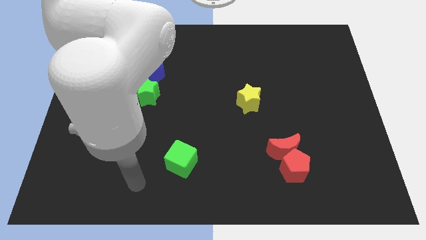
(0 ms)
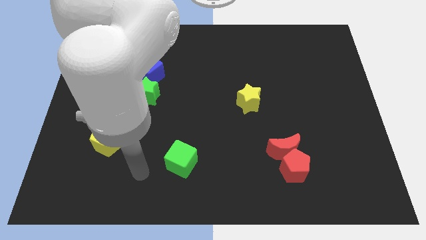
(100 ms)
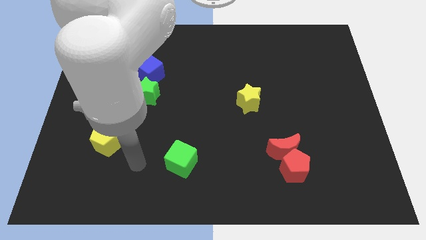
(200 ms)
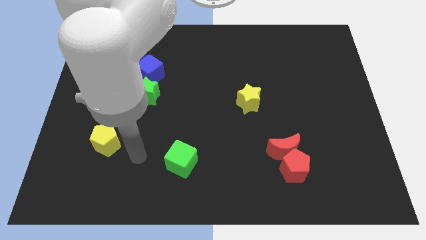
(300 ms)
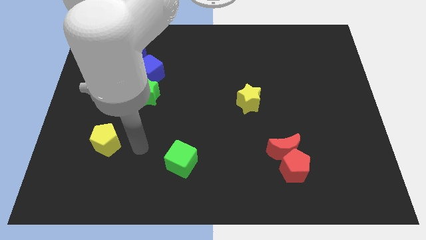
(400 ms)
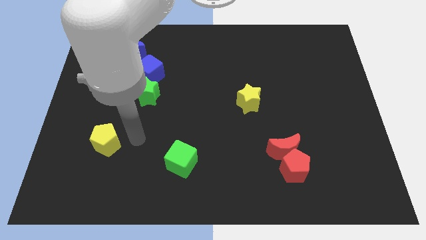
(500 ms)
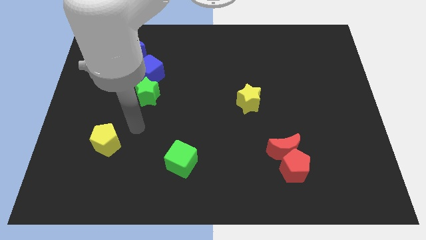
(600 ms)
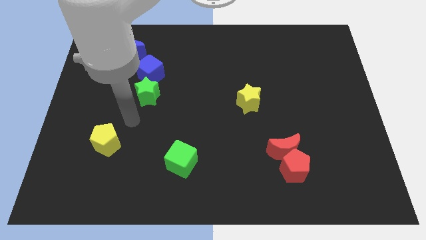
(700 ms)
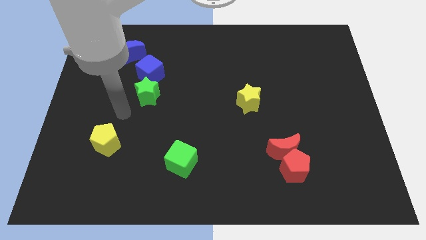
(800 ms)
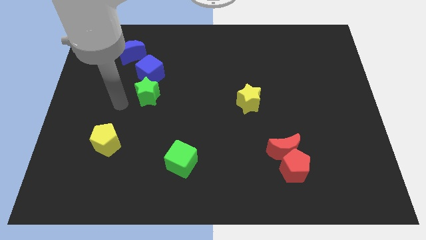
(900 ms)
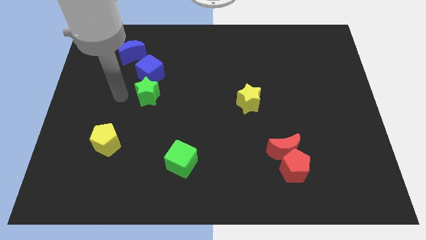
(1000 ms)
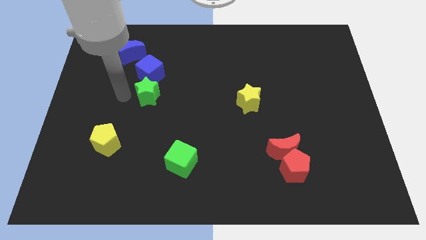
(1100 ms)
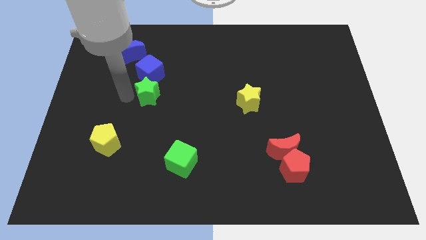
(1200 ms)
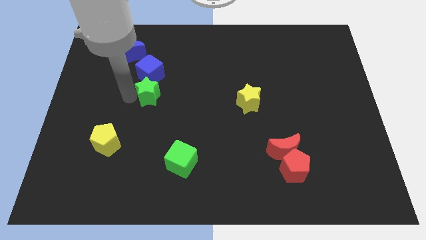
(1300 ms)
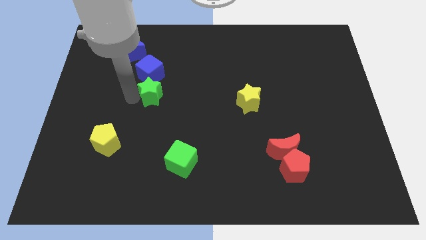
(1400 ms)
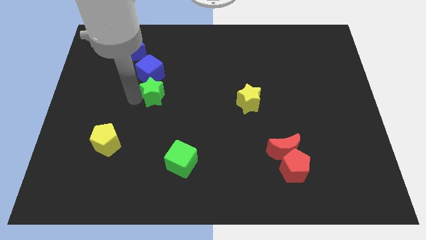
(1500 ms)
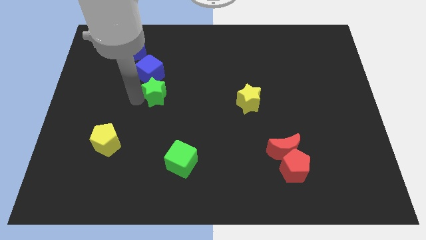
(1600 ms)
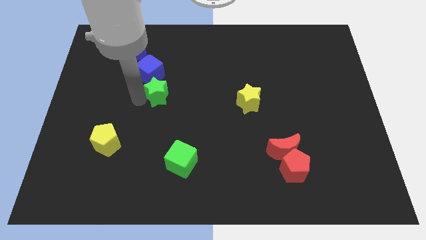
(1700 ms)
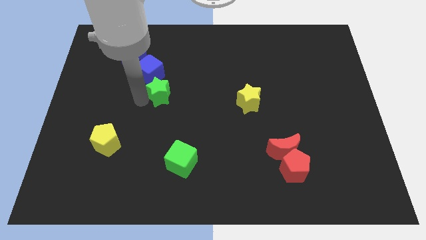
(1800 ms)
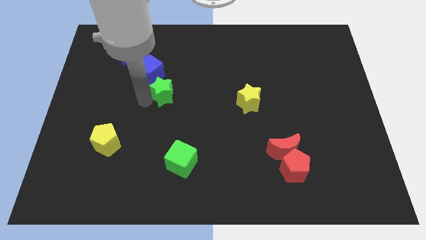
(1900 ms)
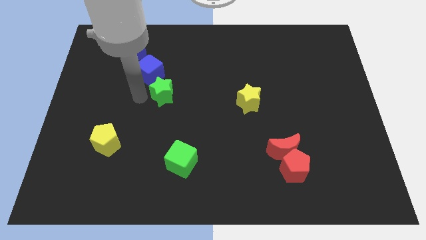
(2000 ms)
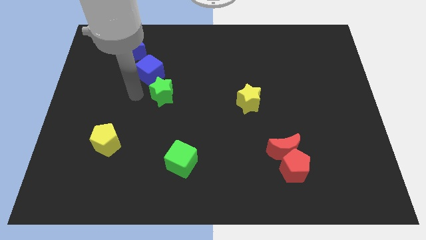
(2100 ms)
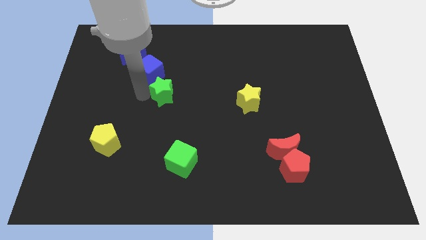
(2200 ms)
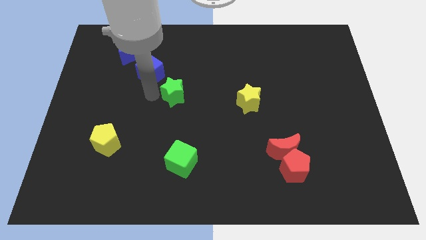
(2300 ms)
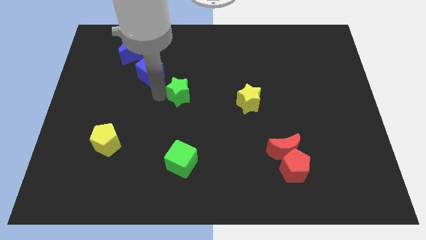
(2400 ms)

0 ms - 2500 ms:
push the green star to the right a little

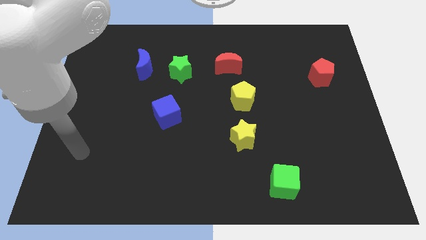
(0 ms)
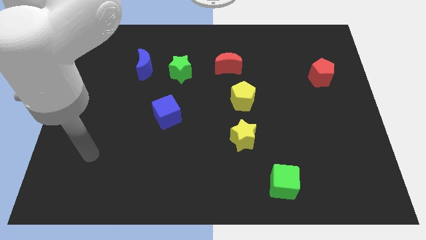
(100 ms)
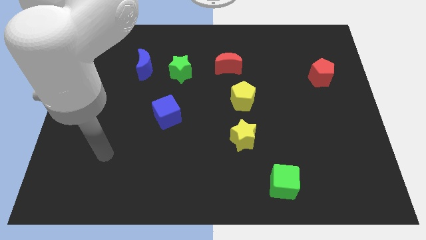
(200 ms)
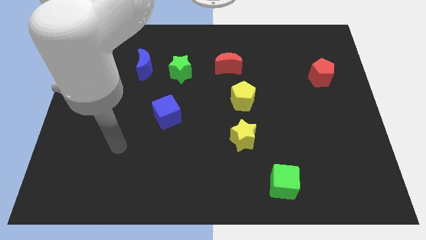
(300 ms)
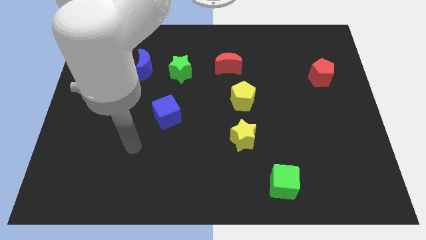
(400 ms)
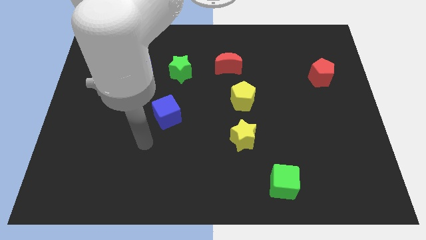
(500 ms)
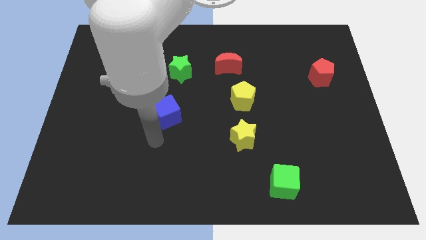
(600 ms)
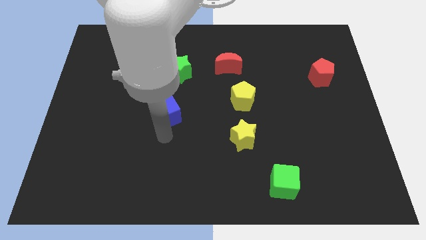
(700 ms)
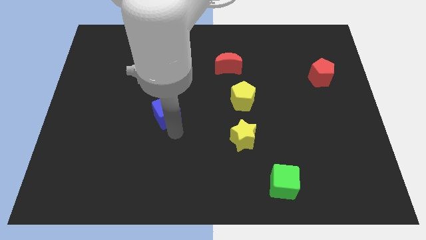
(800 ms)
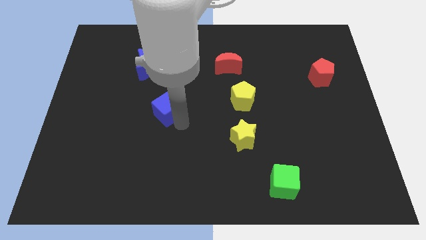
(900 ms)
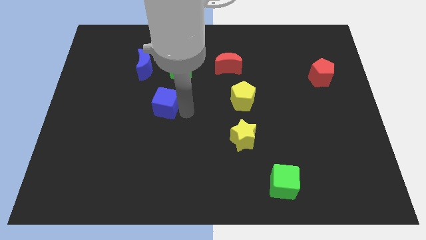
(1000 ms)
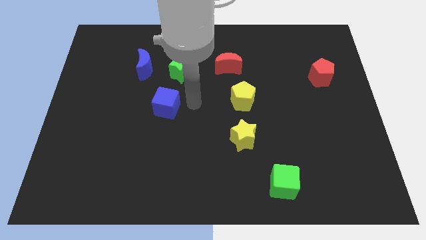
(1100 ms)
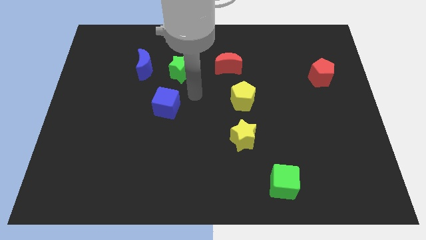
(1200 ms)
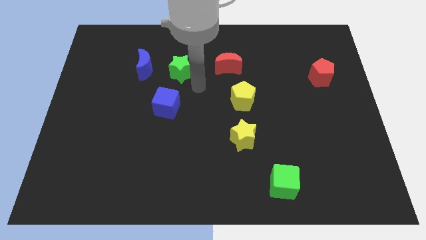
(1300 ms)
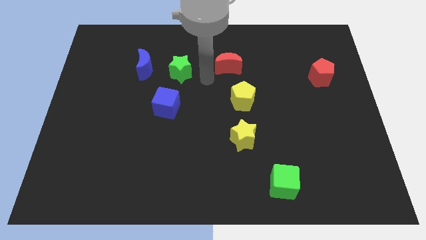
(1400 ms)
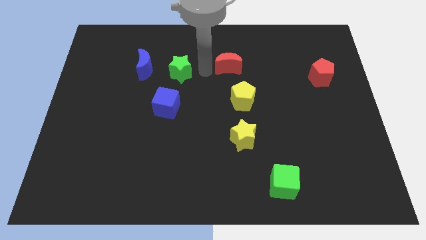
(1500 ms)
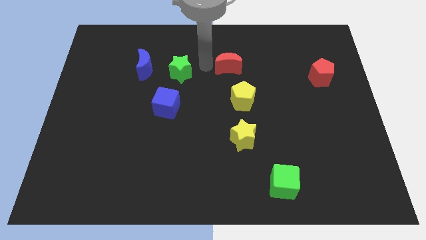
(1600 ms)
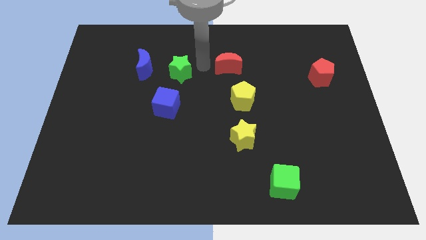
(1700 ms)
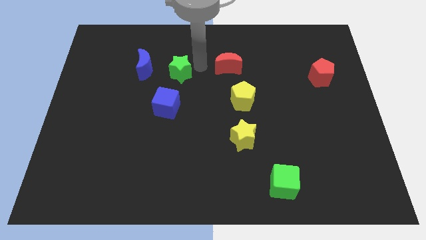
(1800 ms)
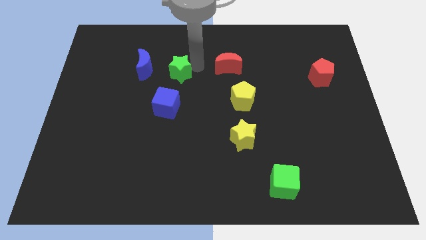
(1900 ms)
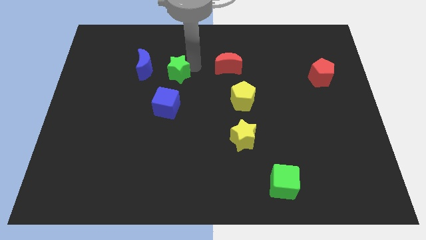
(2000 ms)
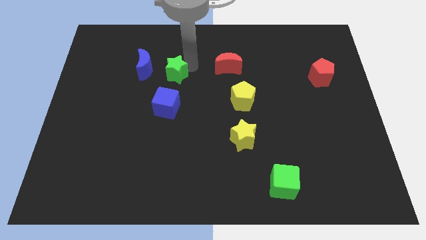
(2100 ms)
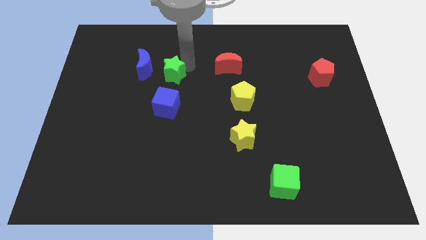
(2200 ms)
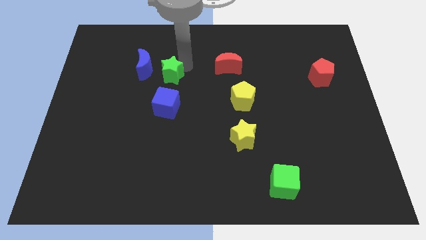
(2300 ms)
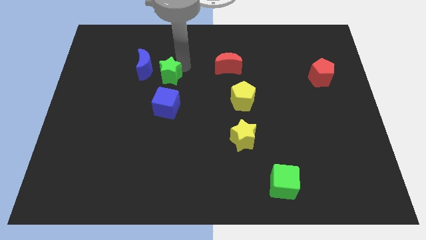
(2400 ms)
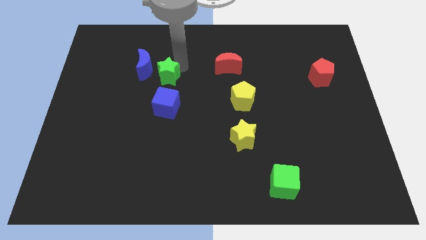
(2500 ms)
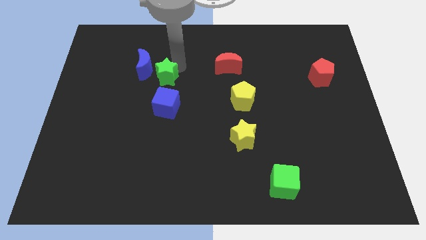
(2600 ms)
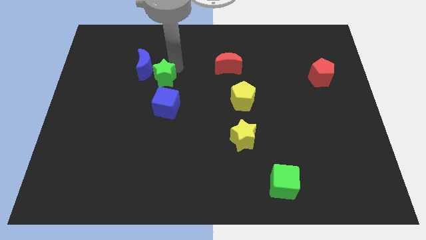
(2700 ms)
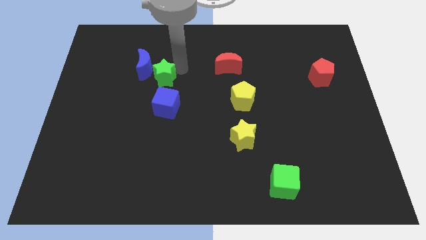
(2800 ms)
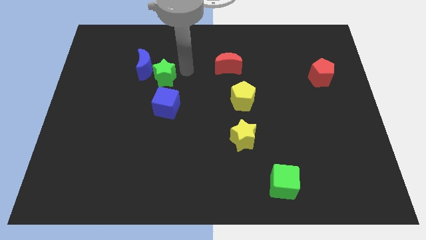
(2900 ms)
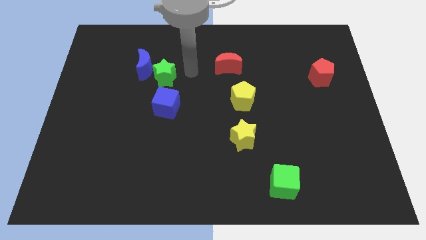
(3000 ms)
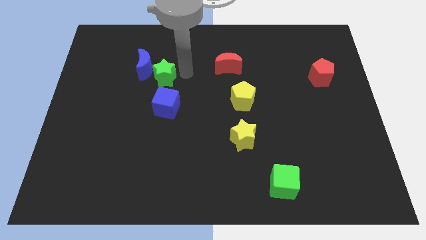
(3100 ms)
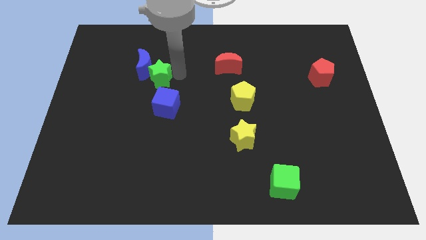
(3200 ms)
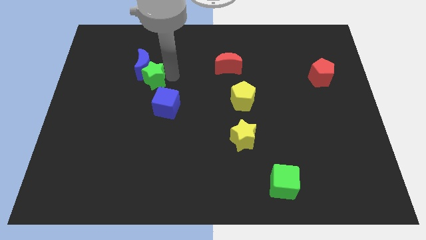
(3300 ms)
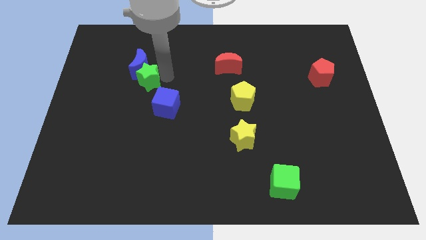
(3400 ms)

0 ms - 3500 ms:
slightly push the green star left

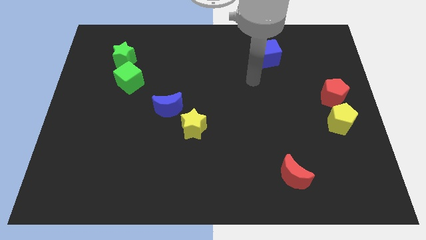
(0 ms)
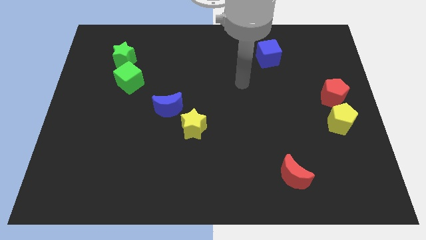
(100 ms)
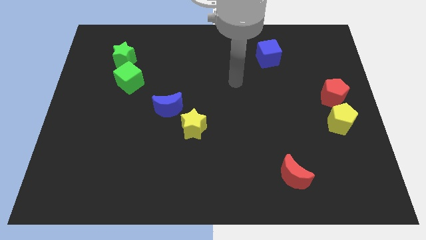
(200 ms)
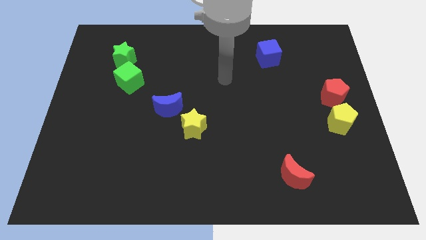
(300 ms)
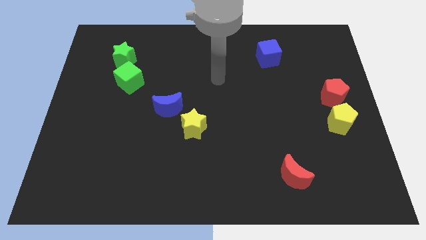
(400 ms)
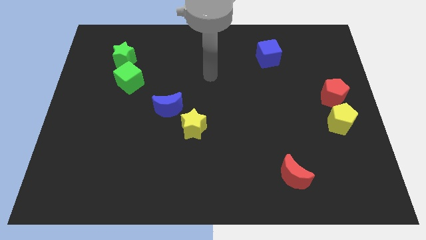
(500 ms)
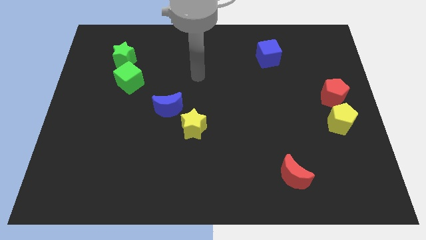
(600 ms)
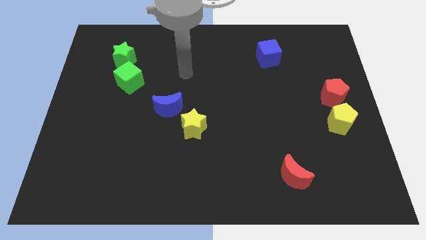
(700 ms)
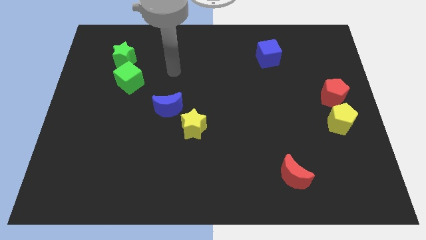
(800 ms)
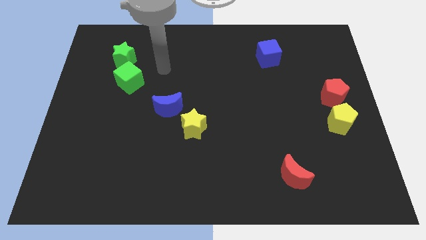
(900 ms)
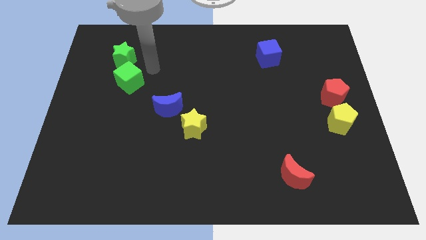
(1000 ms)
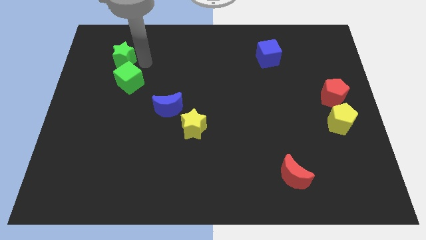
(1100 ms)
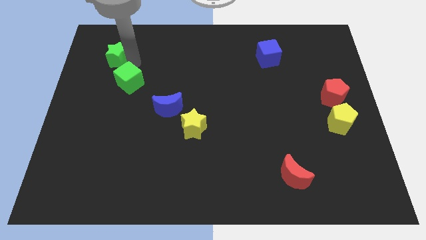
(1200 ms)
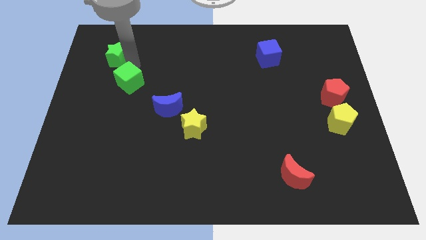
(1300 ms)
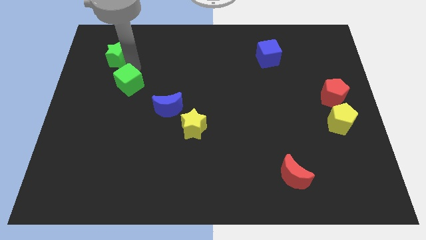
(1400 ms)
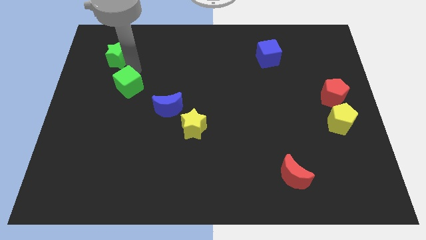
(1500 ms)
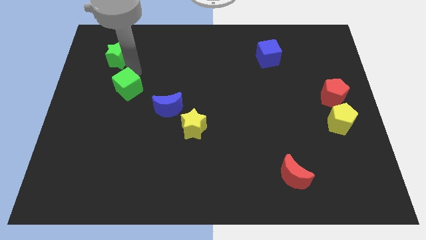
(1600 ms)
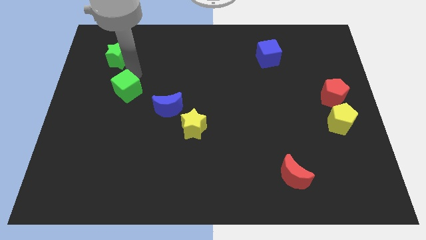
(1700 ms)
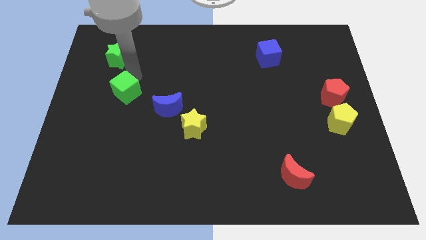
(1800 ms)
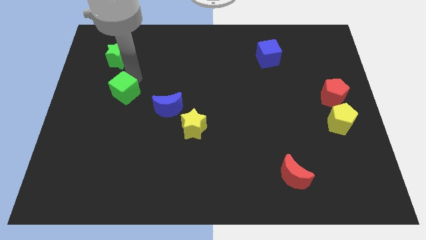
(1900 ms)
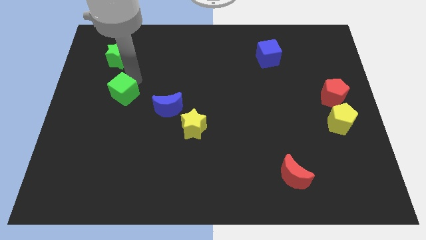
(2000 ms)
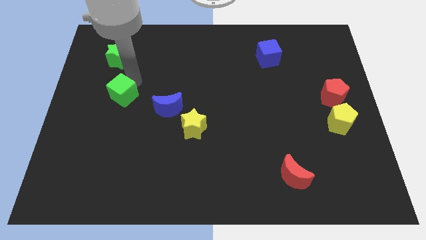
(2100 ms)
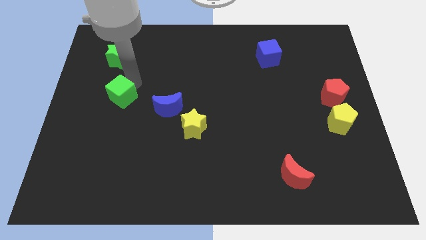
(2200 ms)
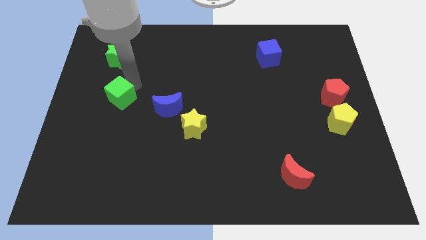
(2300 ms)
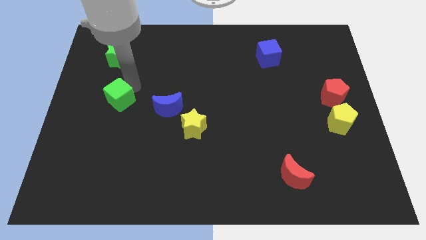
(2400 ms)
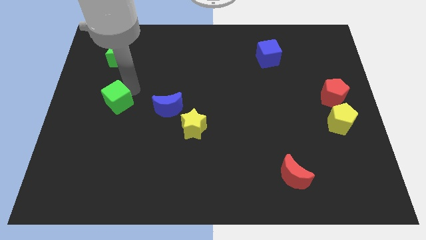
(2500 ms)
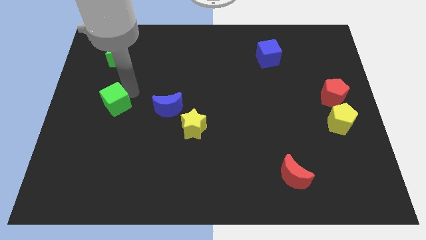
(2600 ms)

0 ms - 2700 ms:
push the green cube slightly downwards
